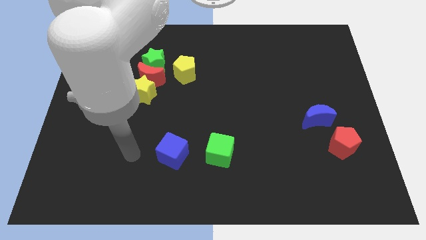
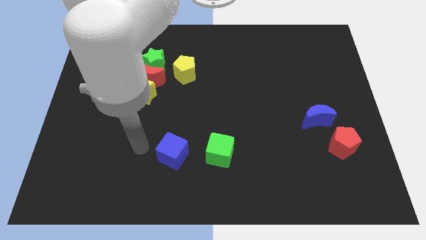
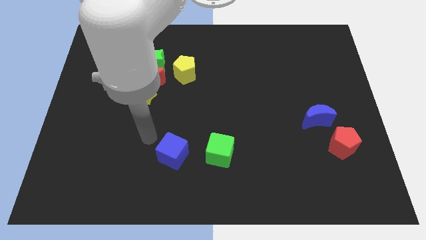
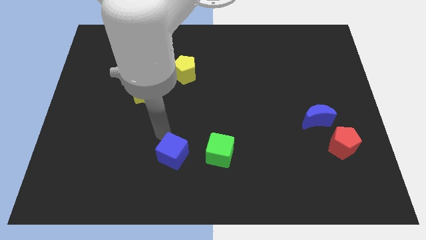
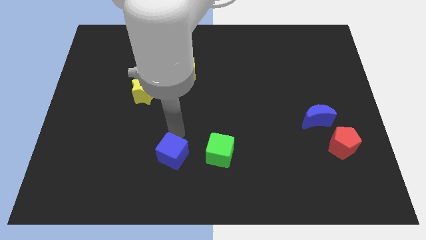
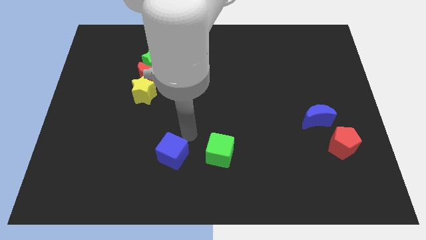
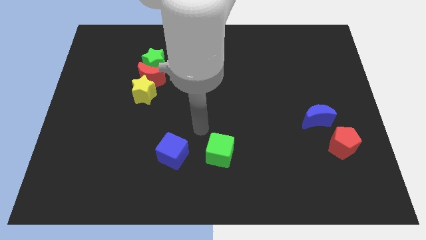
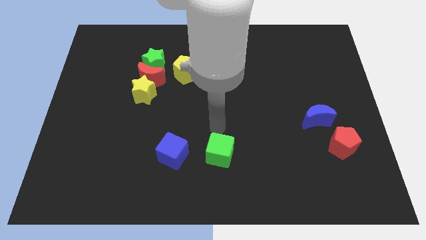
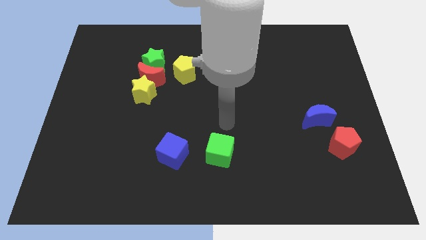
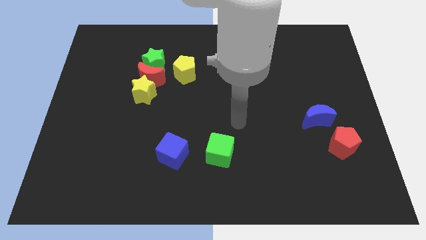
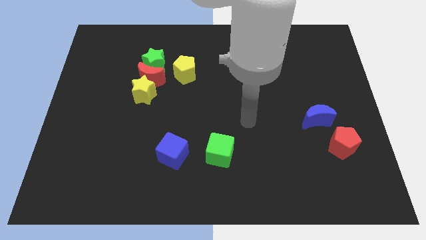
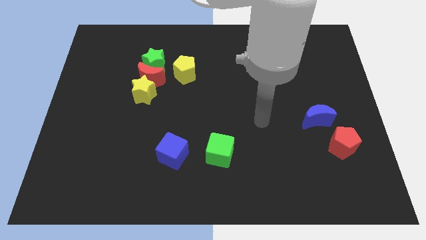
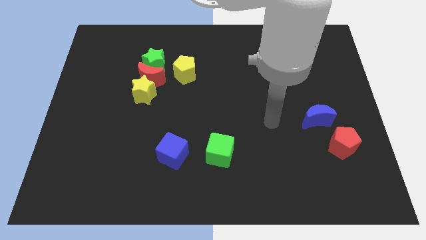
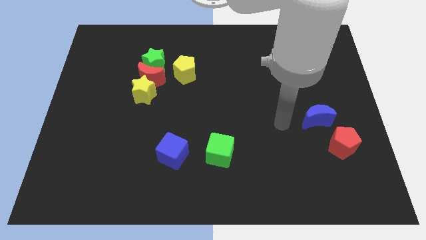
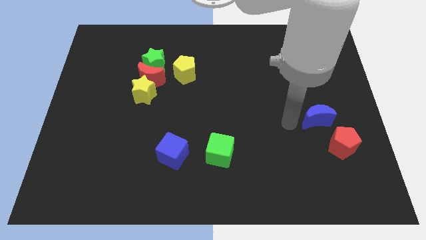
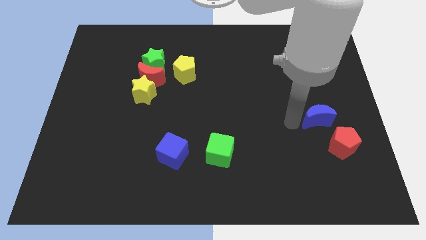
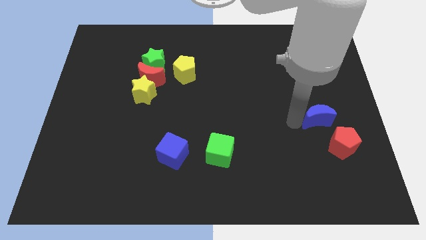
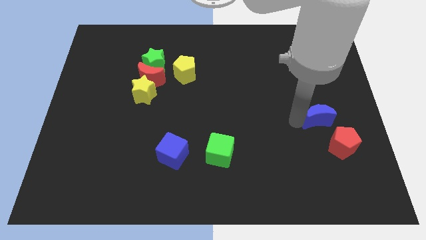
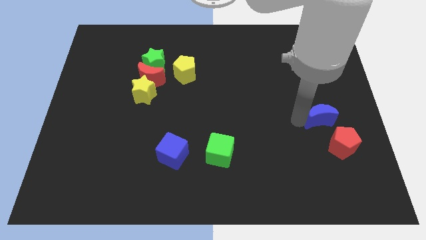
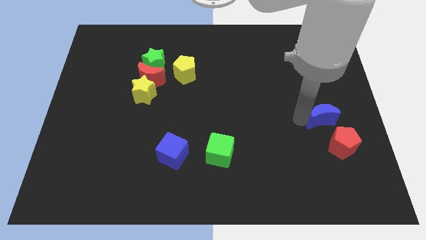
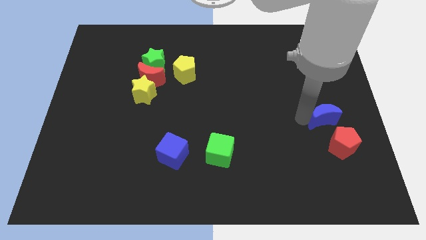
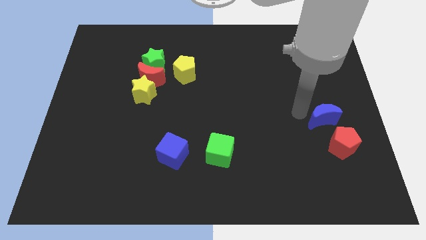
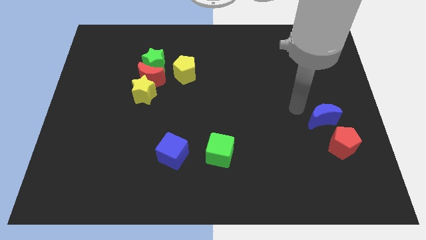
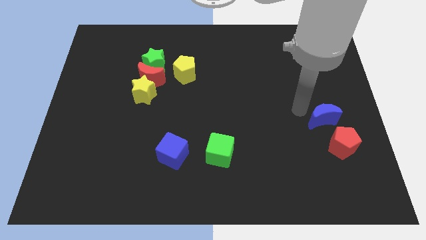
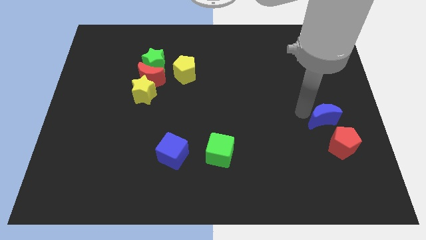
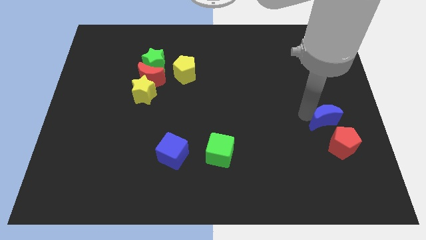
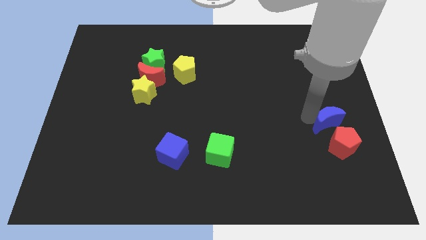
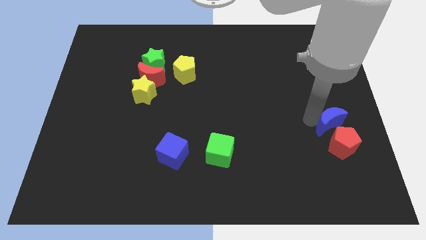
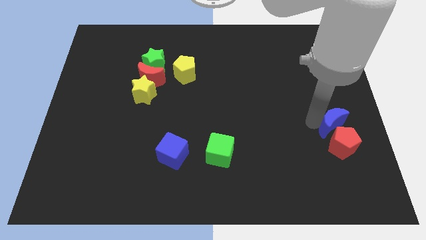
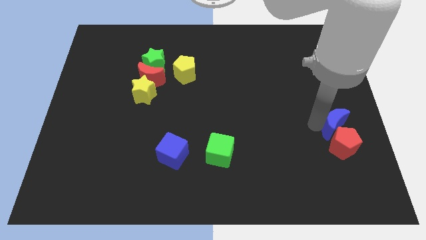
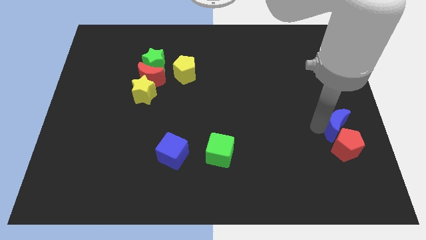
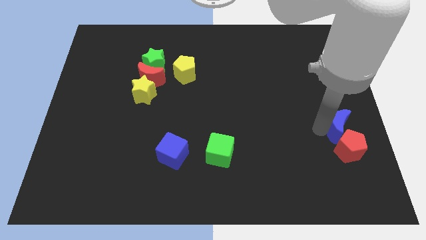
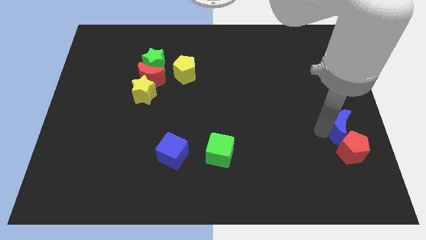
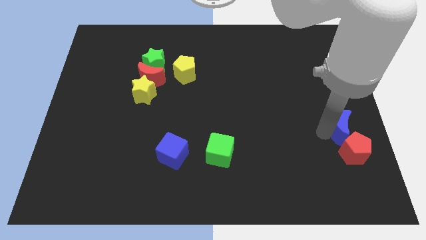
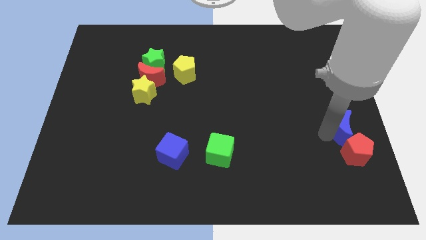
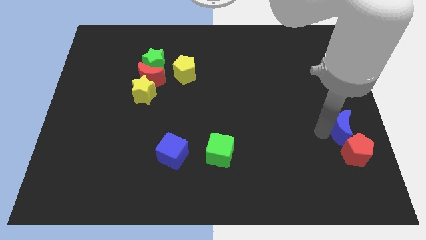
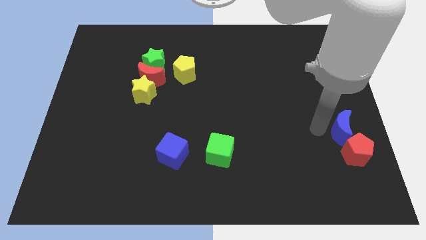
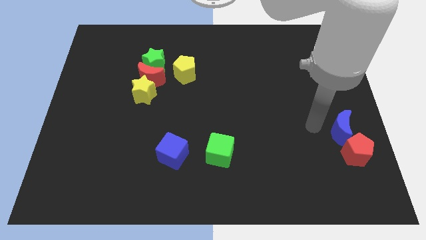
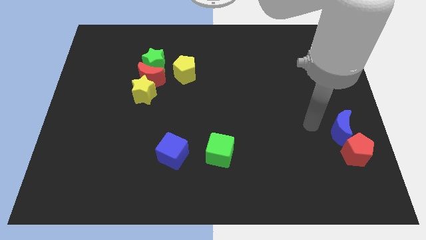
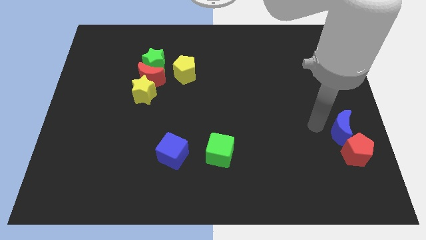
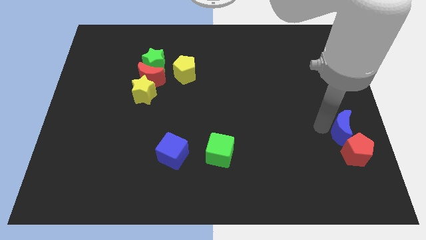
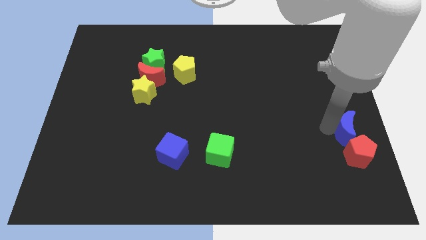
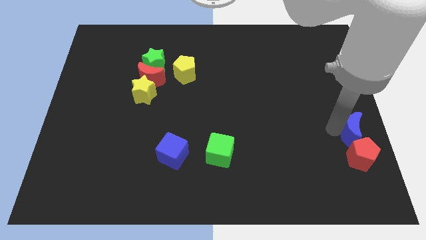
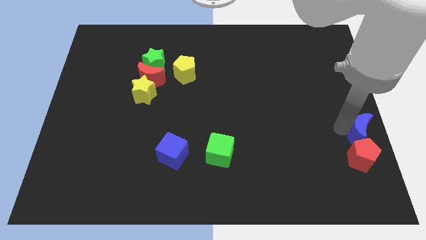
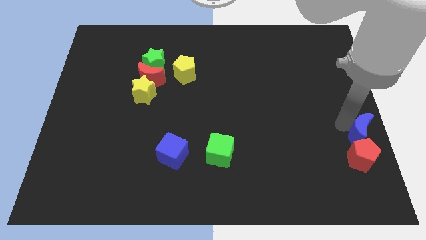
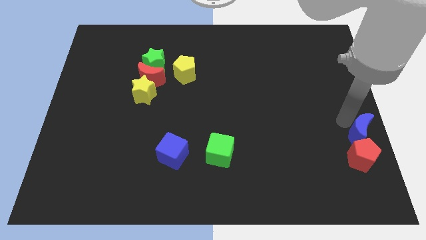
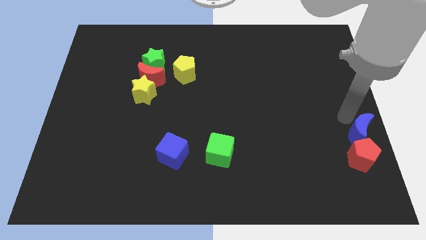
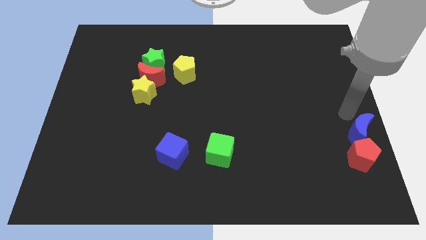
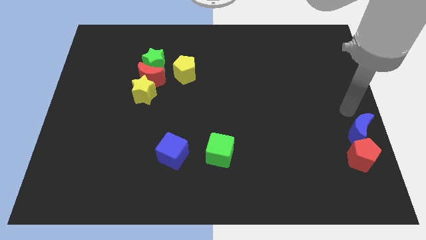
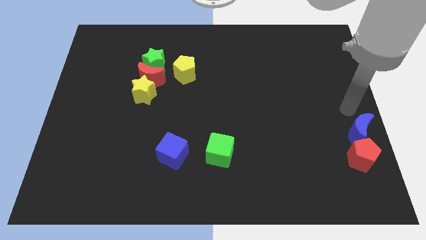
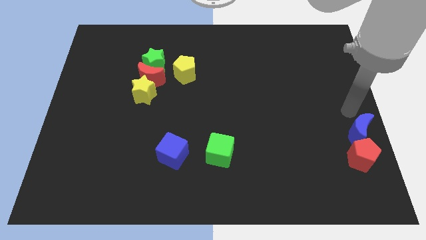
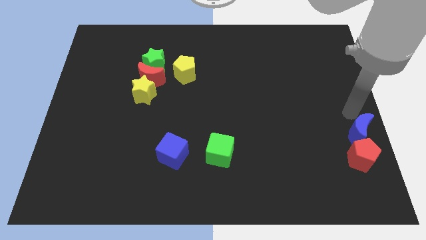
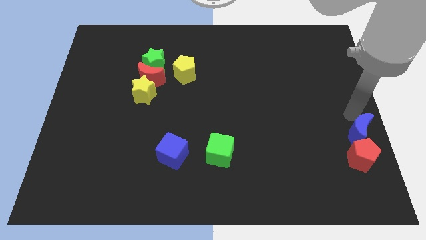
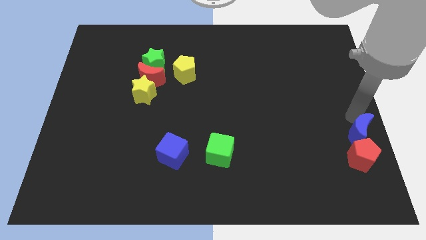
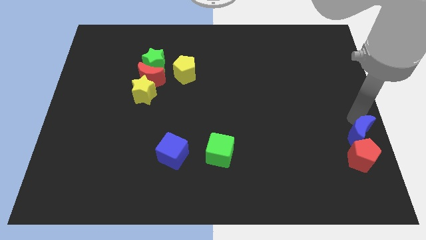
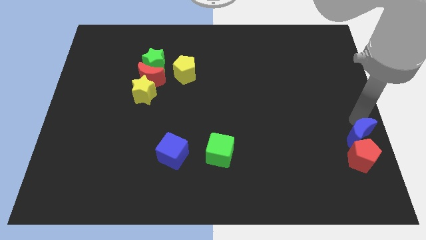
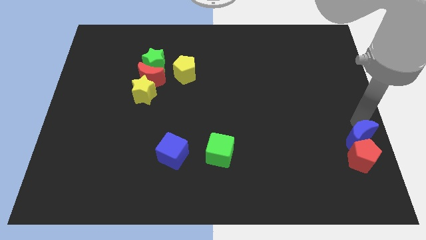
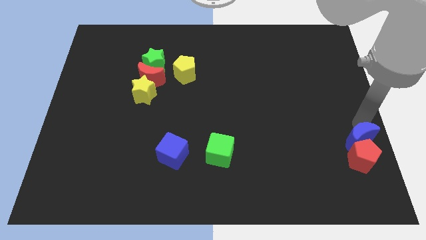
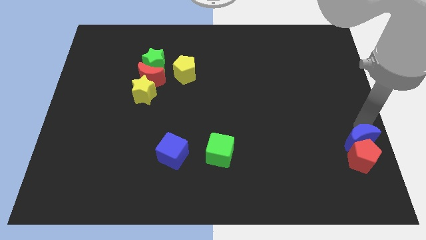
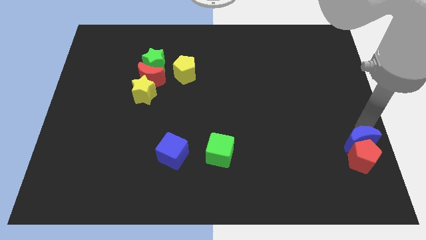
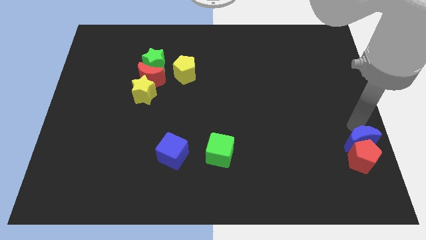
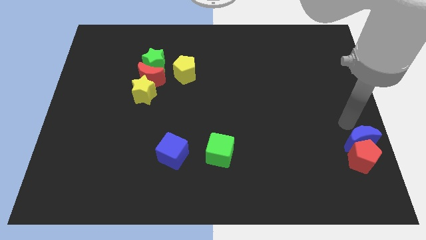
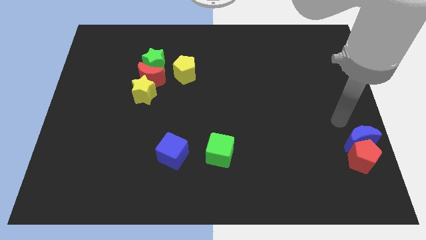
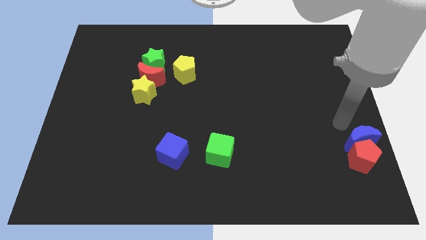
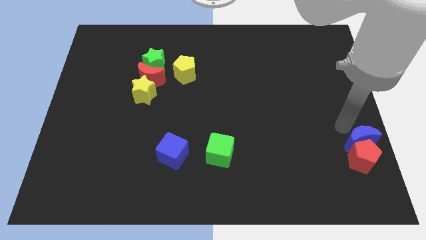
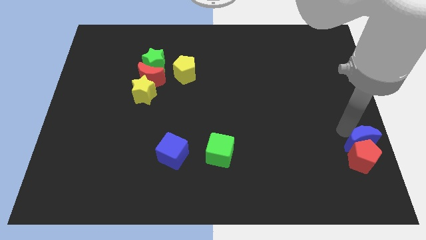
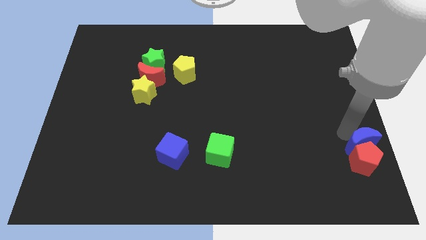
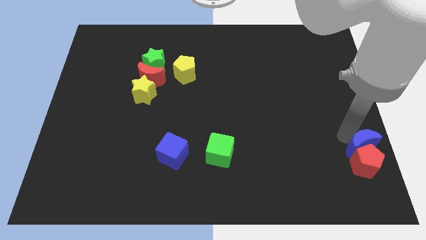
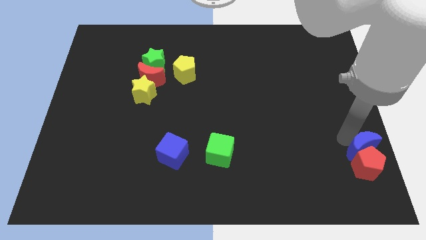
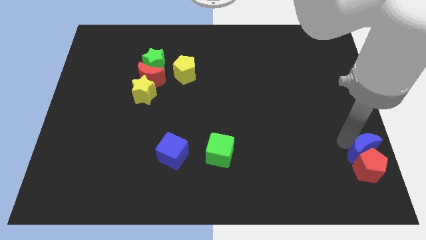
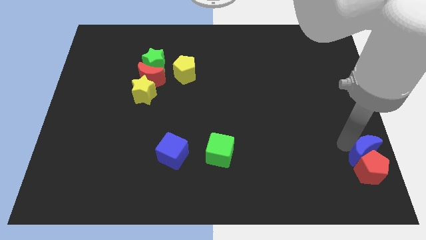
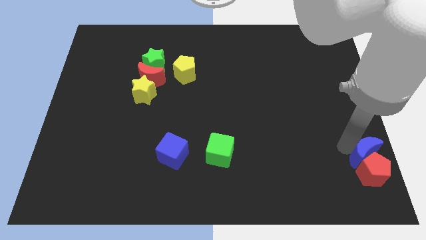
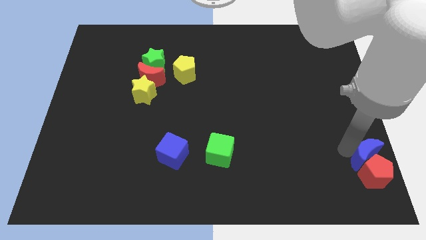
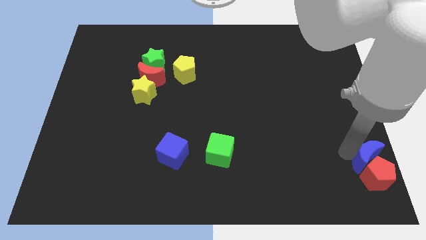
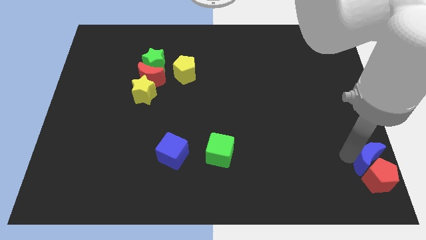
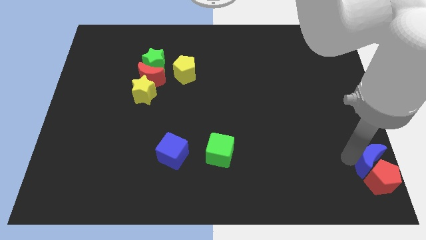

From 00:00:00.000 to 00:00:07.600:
move the blue moon to the lower right corner
